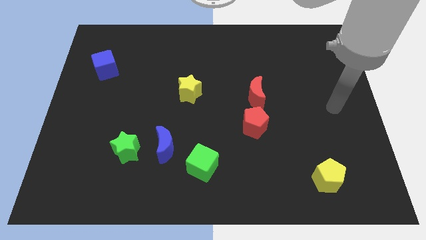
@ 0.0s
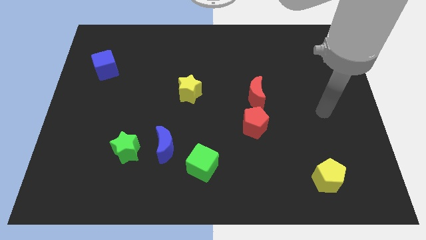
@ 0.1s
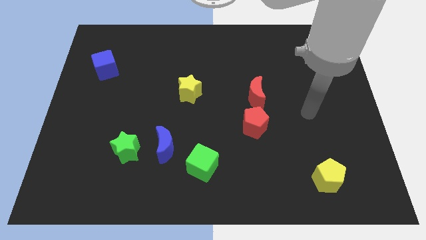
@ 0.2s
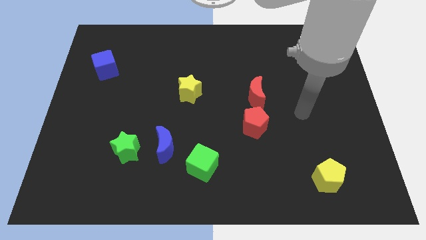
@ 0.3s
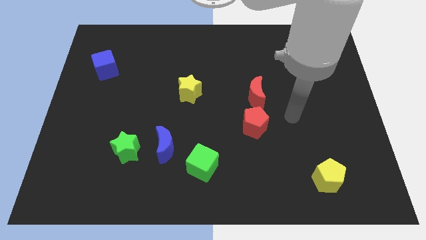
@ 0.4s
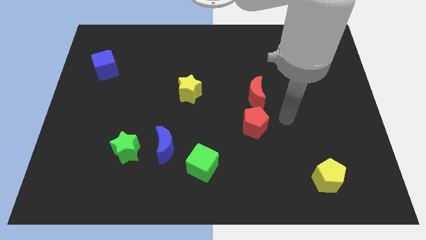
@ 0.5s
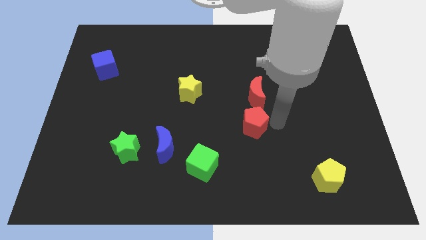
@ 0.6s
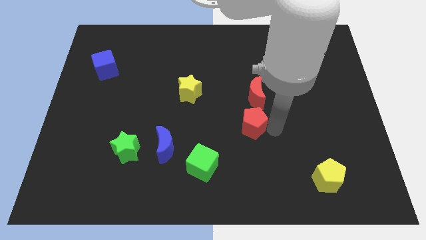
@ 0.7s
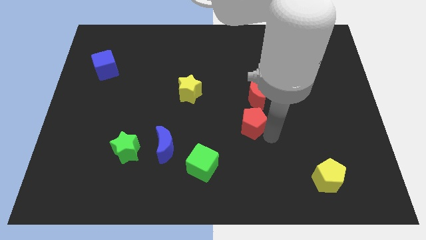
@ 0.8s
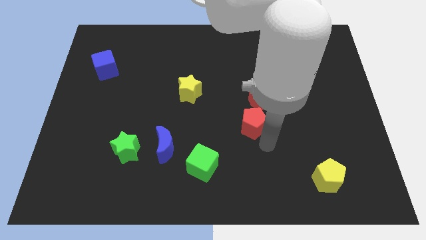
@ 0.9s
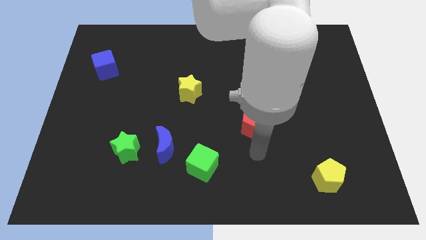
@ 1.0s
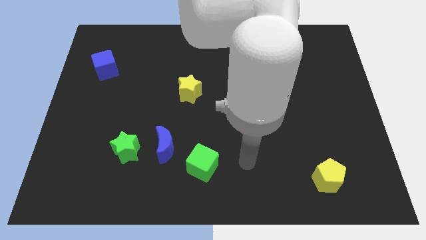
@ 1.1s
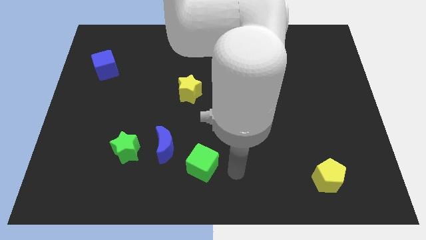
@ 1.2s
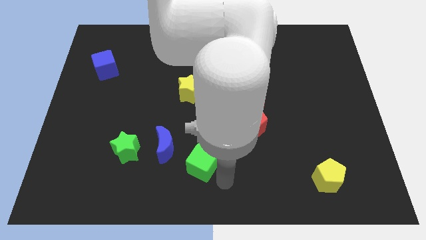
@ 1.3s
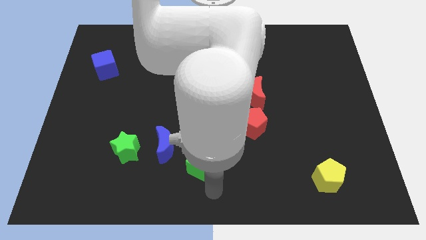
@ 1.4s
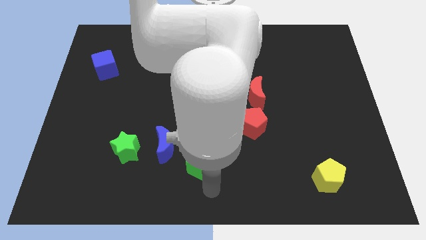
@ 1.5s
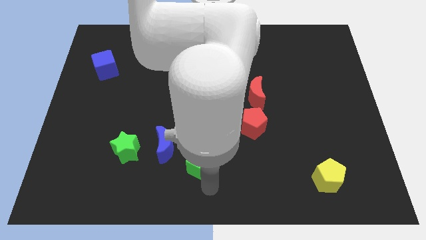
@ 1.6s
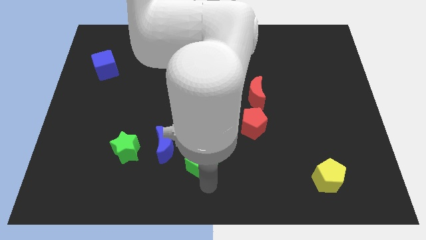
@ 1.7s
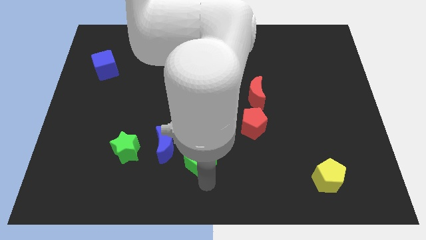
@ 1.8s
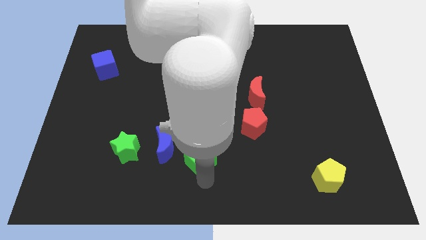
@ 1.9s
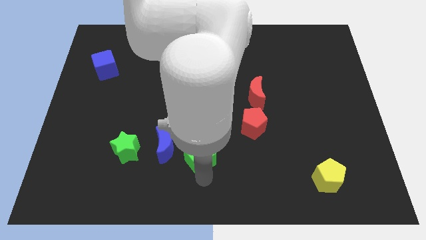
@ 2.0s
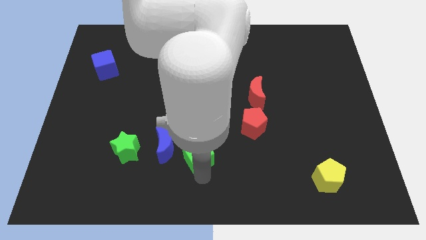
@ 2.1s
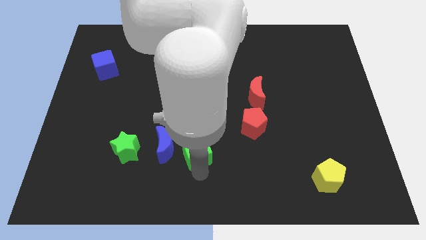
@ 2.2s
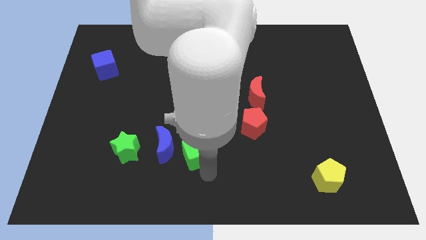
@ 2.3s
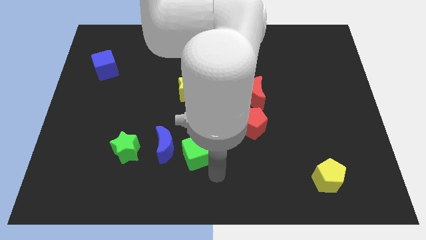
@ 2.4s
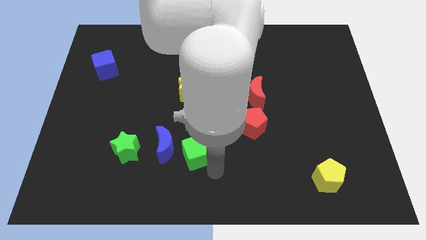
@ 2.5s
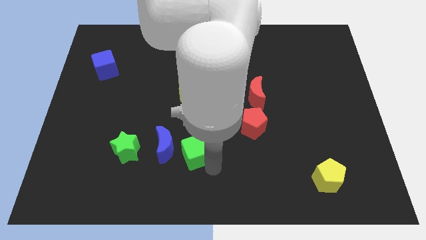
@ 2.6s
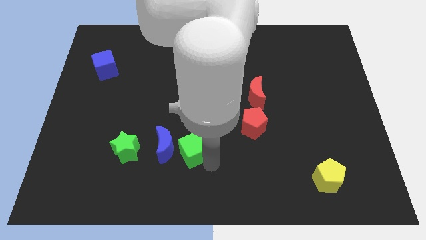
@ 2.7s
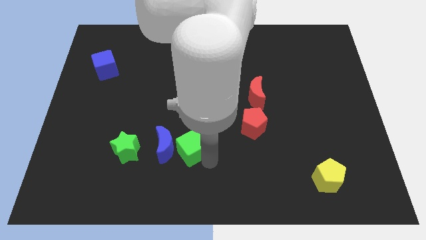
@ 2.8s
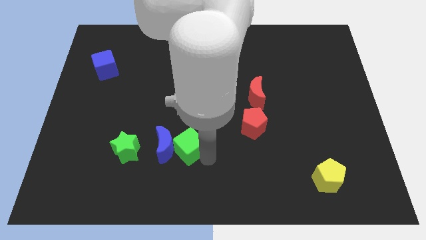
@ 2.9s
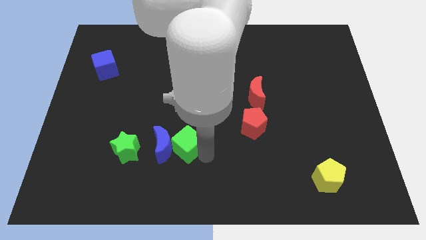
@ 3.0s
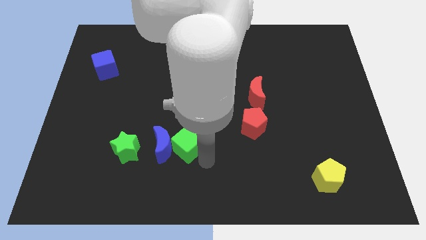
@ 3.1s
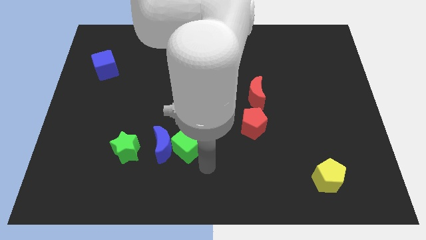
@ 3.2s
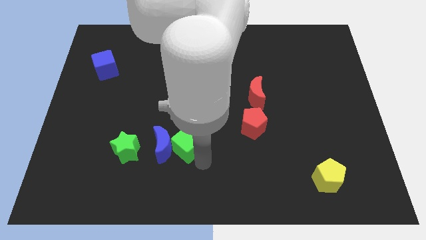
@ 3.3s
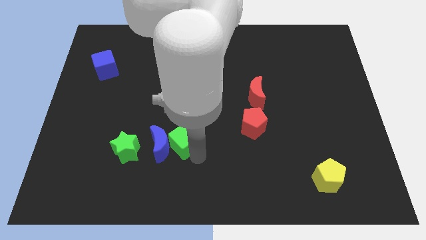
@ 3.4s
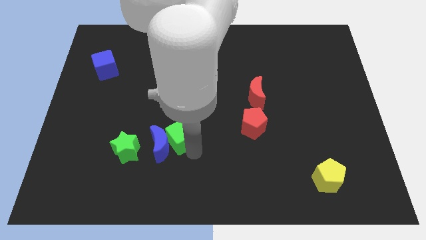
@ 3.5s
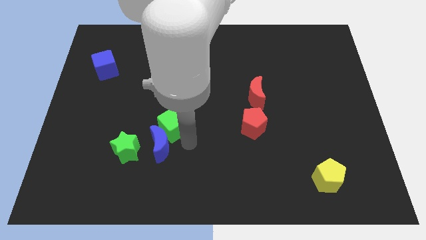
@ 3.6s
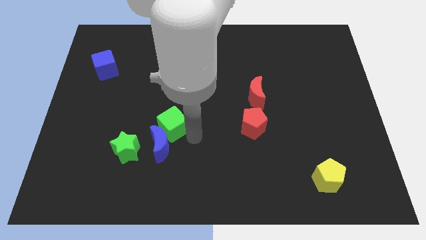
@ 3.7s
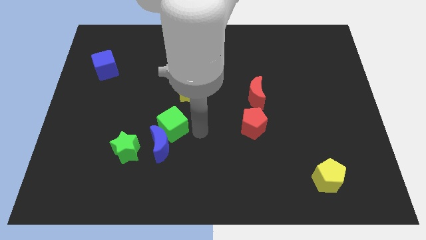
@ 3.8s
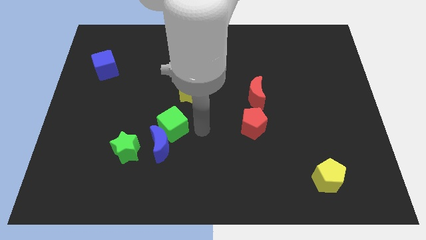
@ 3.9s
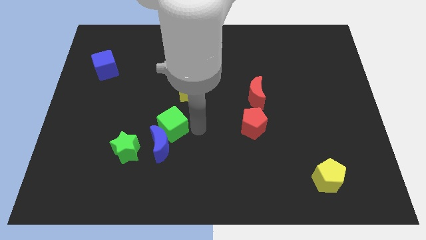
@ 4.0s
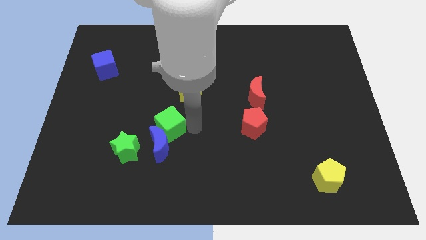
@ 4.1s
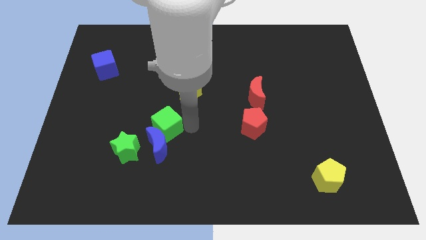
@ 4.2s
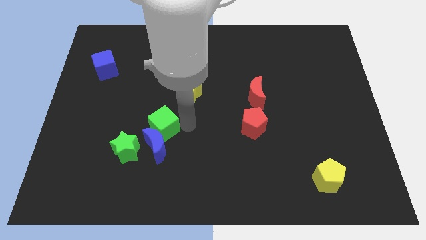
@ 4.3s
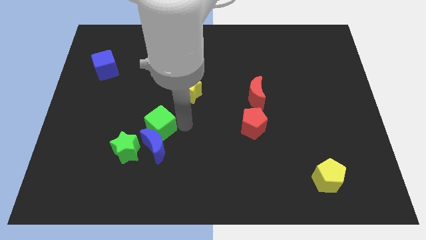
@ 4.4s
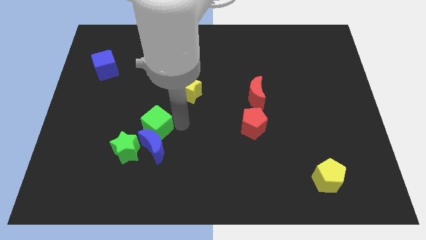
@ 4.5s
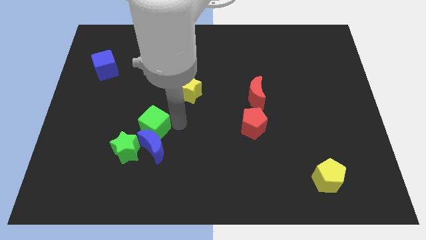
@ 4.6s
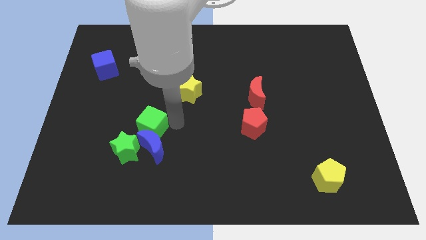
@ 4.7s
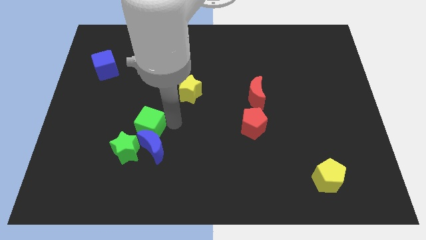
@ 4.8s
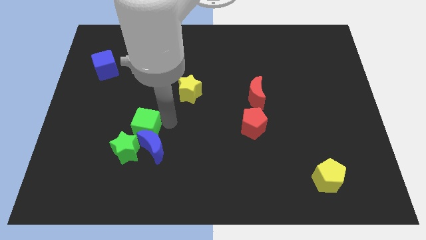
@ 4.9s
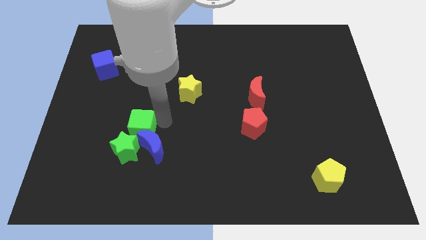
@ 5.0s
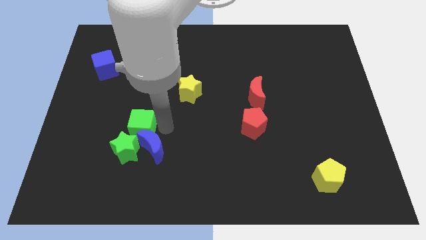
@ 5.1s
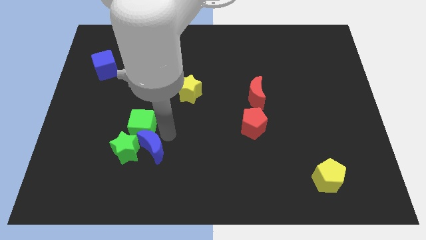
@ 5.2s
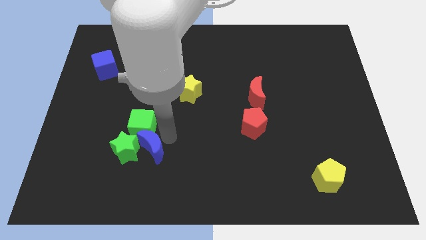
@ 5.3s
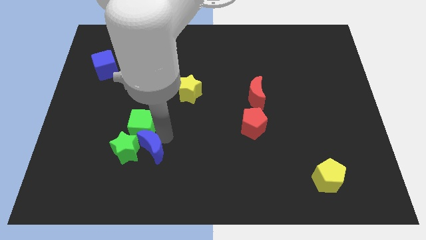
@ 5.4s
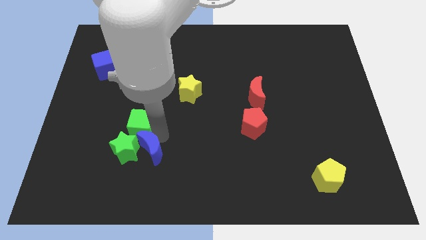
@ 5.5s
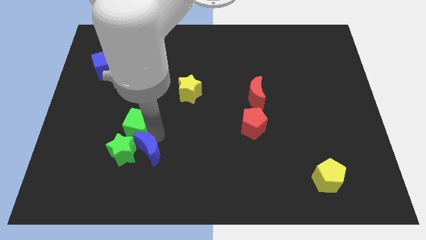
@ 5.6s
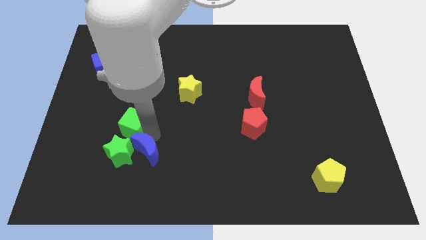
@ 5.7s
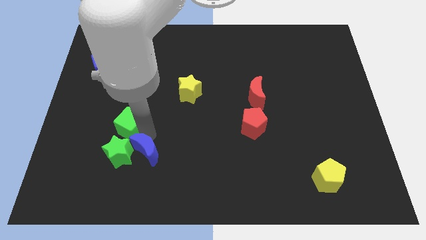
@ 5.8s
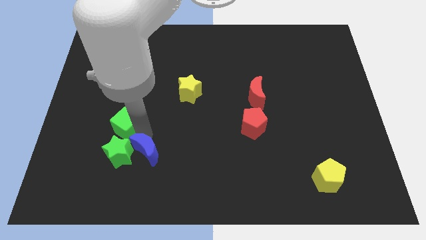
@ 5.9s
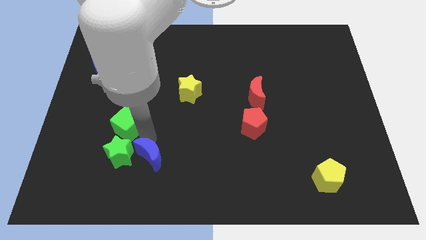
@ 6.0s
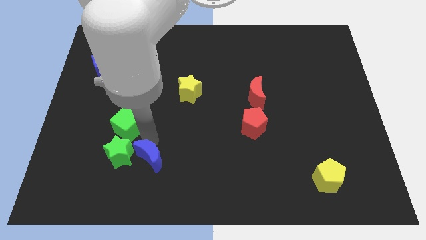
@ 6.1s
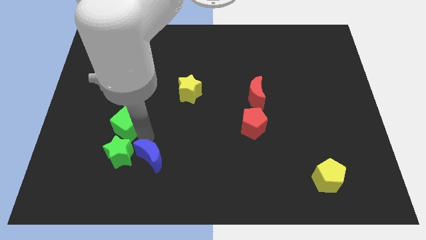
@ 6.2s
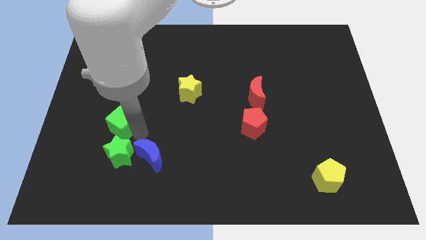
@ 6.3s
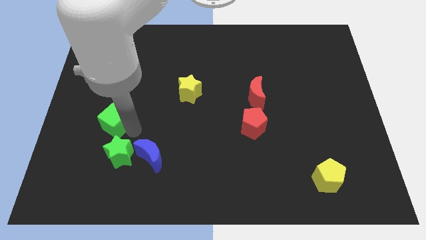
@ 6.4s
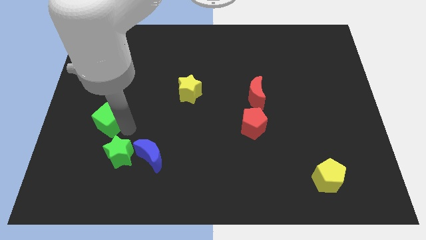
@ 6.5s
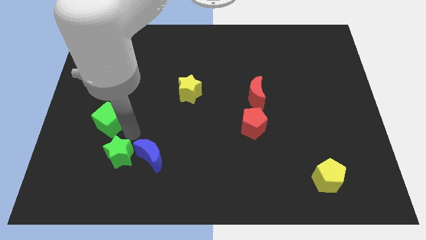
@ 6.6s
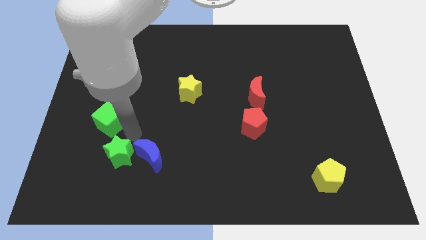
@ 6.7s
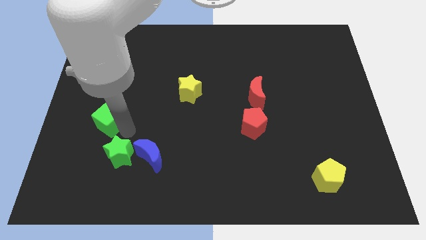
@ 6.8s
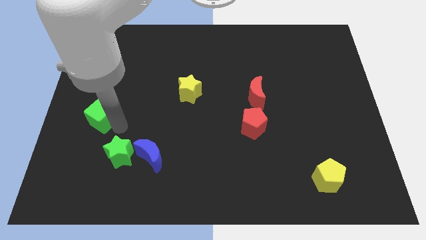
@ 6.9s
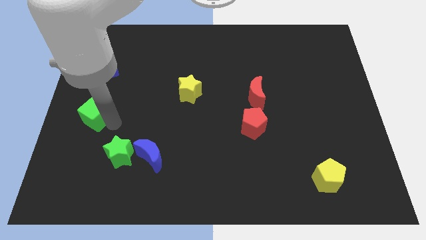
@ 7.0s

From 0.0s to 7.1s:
slide the green cube to the center left
